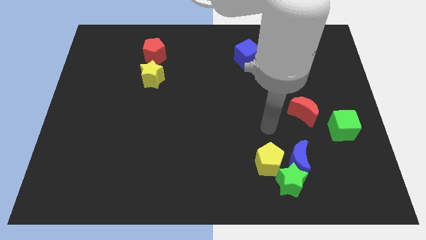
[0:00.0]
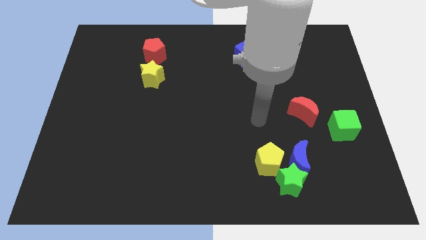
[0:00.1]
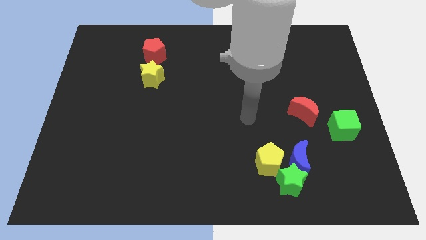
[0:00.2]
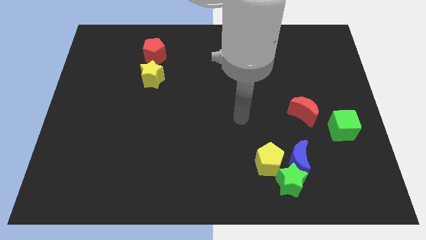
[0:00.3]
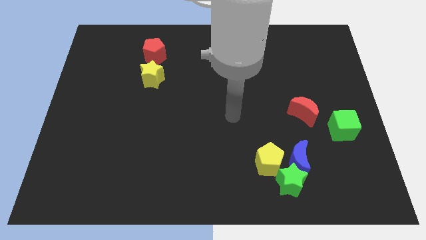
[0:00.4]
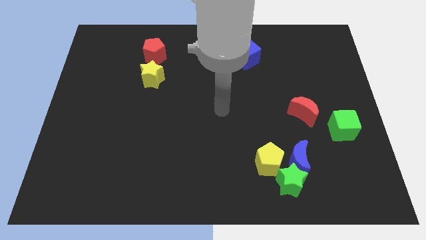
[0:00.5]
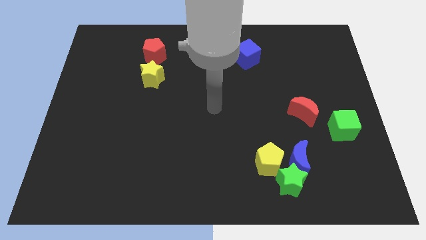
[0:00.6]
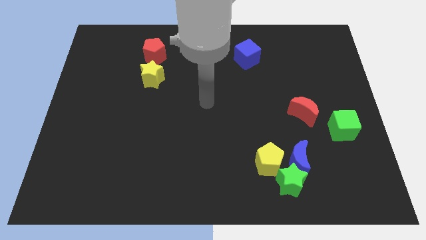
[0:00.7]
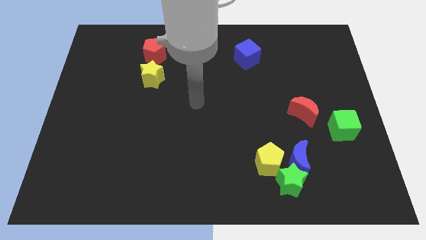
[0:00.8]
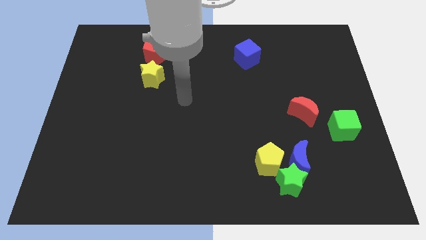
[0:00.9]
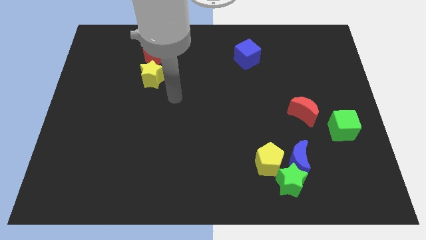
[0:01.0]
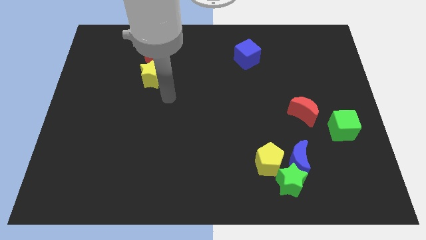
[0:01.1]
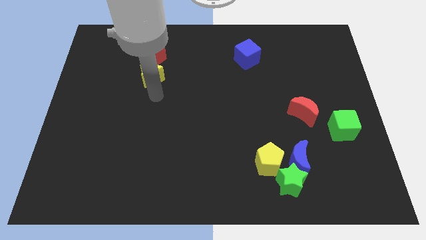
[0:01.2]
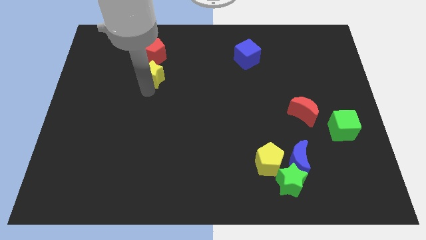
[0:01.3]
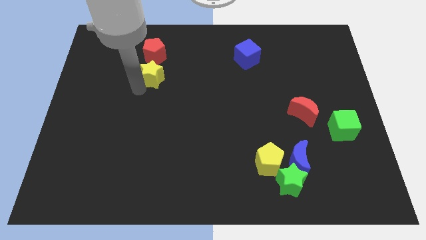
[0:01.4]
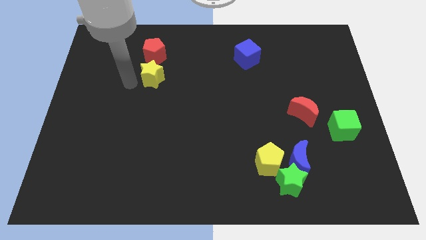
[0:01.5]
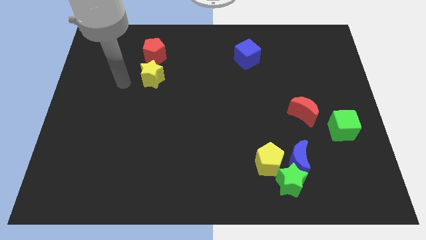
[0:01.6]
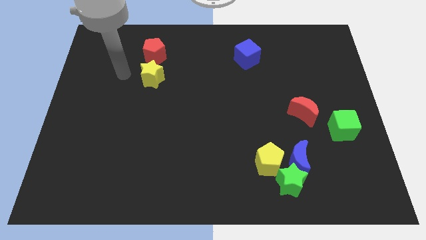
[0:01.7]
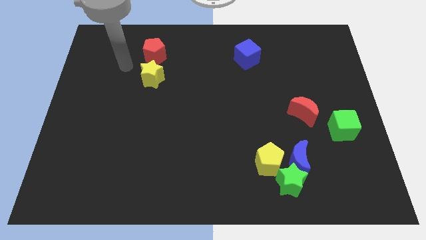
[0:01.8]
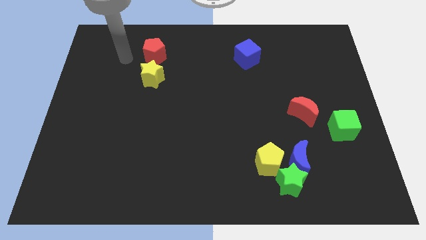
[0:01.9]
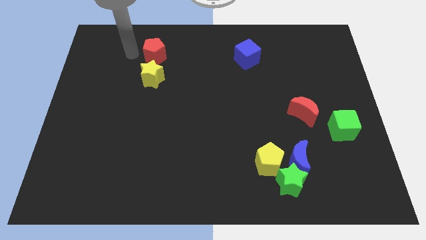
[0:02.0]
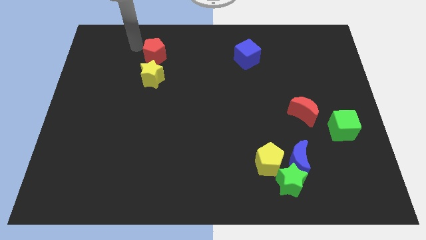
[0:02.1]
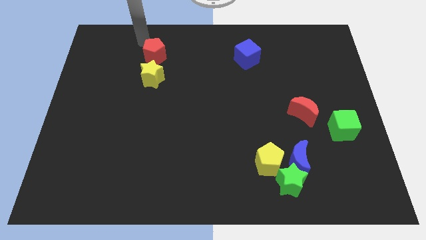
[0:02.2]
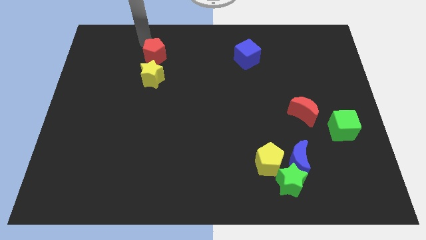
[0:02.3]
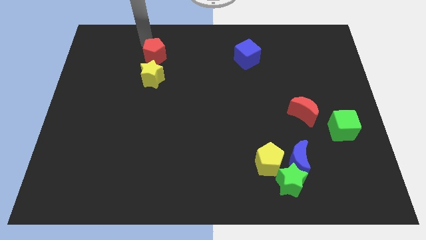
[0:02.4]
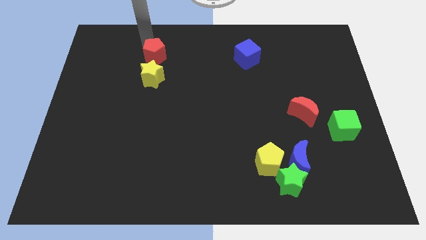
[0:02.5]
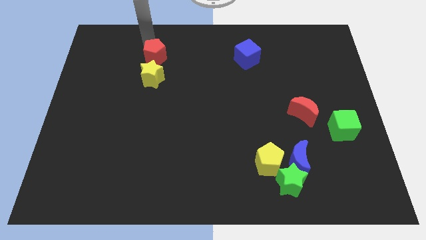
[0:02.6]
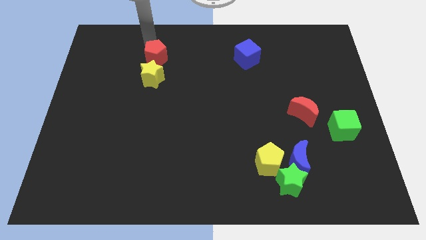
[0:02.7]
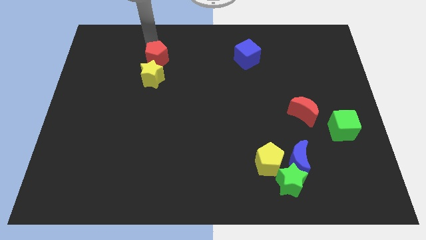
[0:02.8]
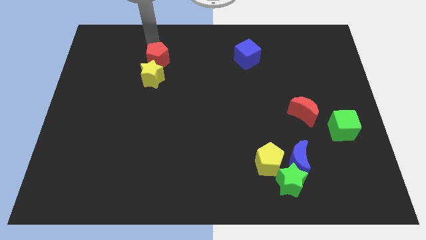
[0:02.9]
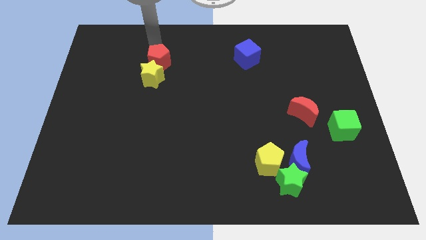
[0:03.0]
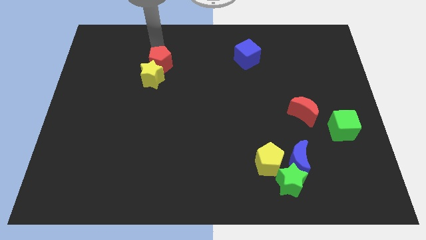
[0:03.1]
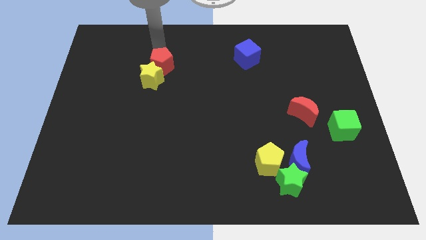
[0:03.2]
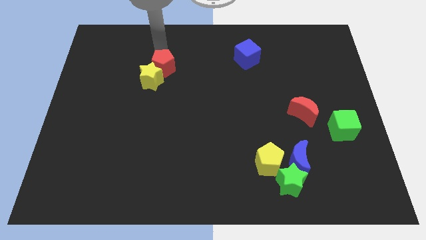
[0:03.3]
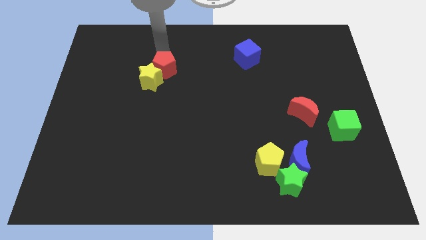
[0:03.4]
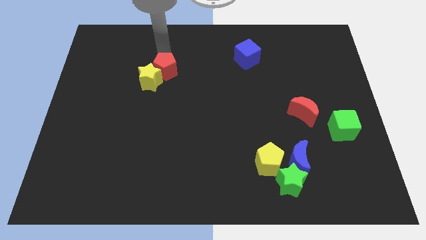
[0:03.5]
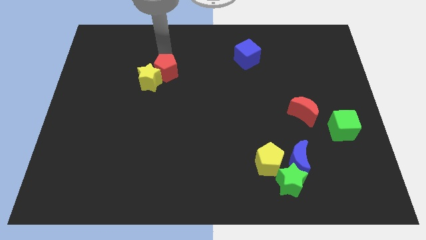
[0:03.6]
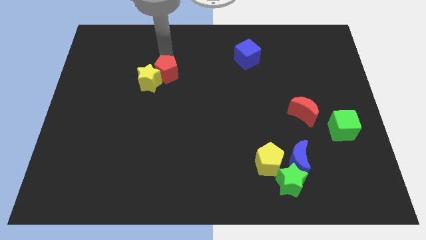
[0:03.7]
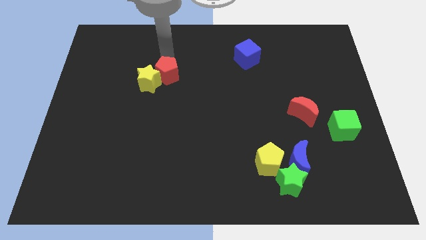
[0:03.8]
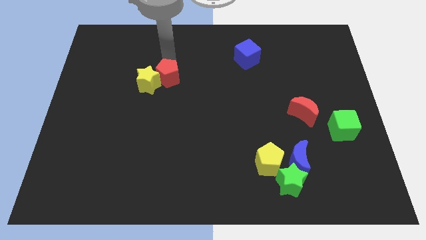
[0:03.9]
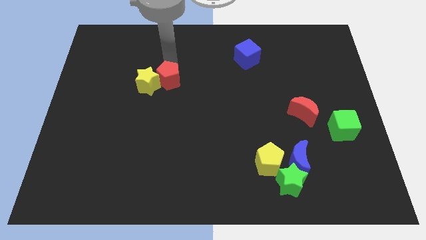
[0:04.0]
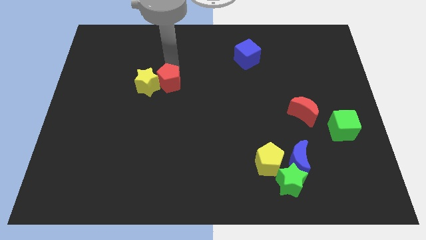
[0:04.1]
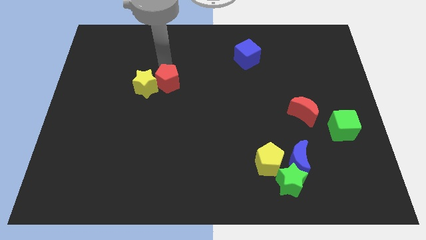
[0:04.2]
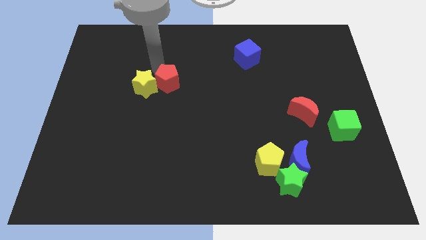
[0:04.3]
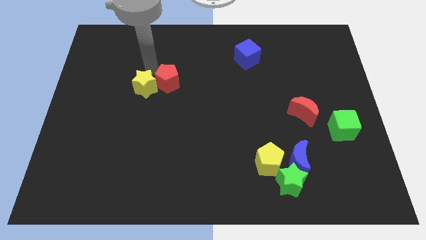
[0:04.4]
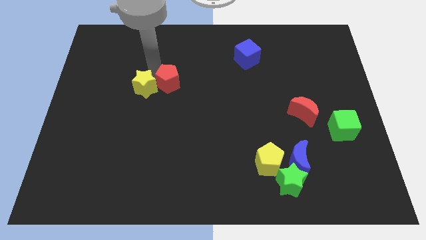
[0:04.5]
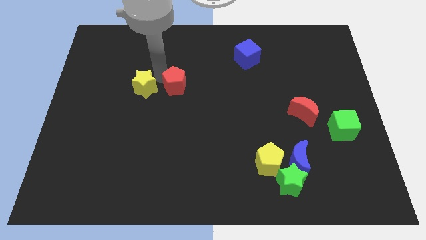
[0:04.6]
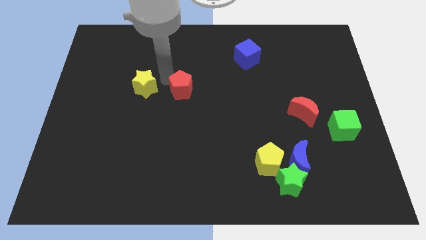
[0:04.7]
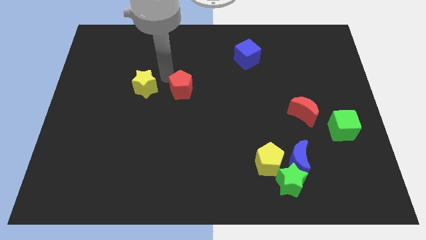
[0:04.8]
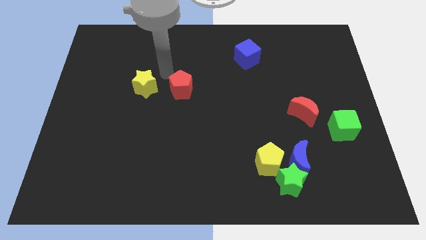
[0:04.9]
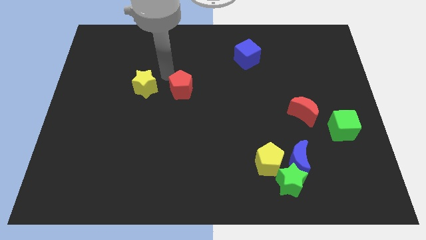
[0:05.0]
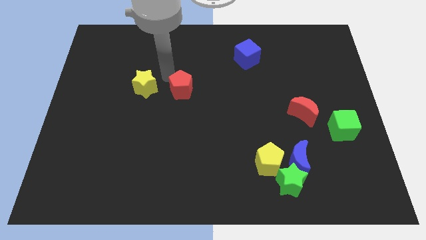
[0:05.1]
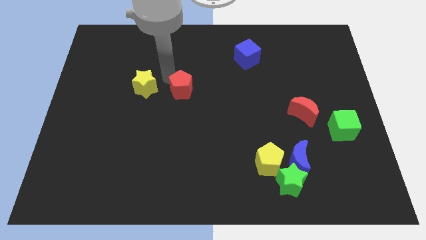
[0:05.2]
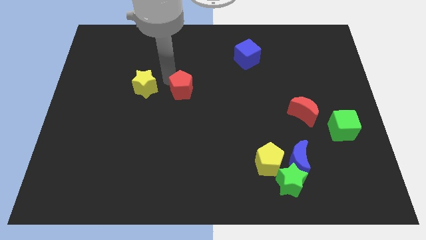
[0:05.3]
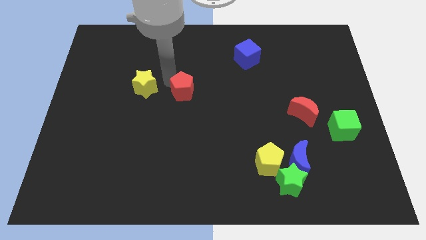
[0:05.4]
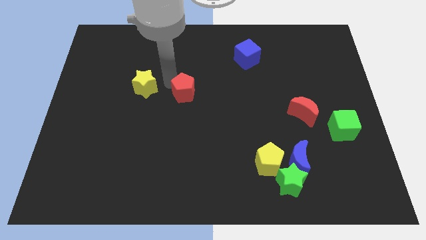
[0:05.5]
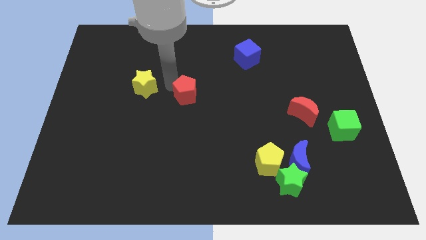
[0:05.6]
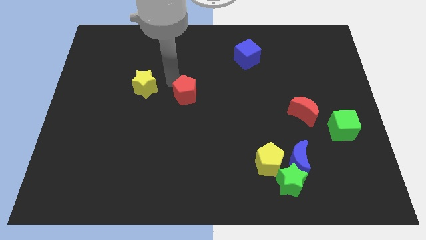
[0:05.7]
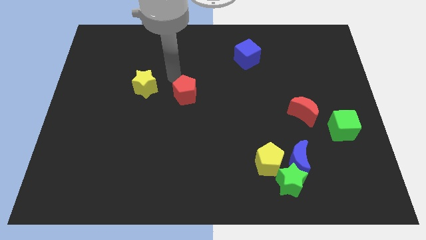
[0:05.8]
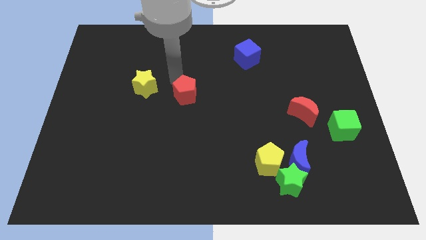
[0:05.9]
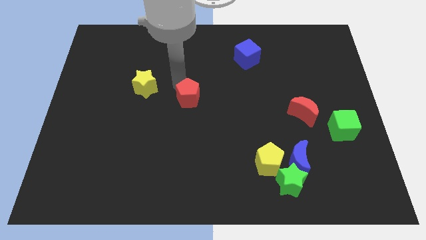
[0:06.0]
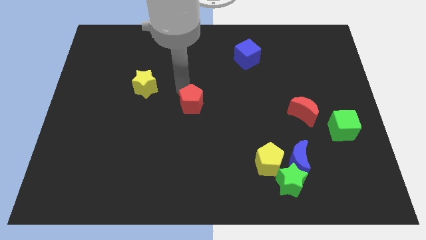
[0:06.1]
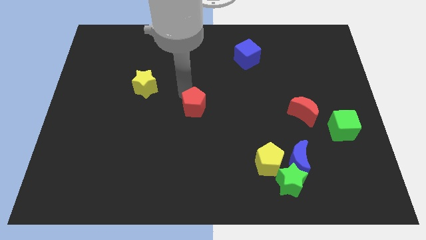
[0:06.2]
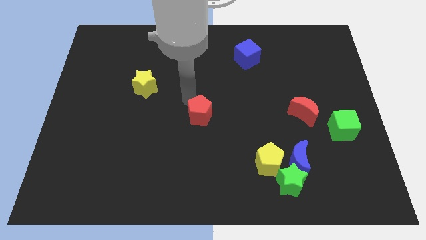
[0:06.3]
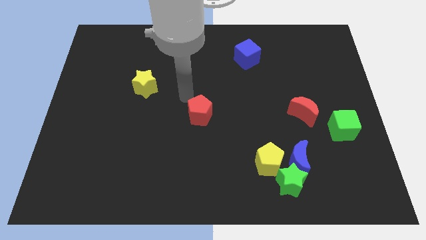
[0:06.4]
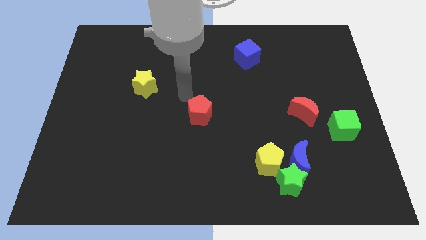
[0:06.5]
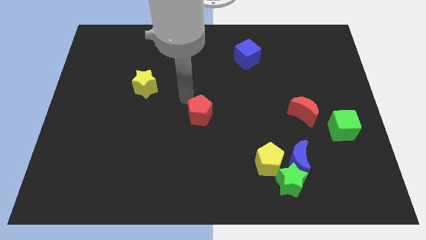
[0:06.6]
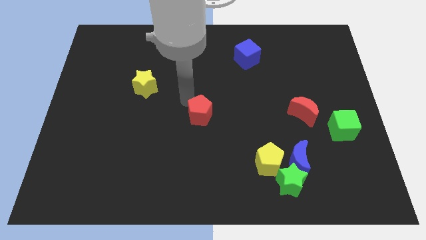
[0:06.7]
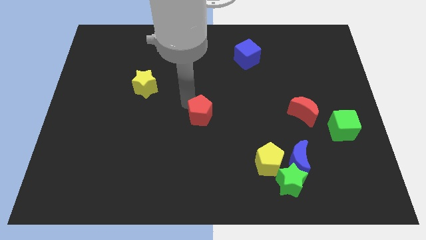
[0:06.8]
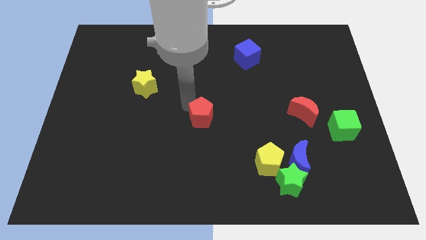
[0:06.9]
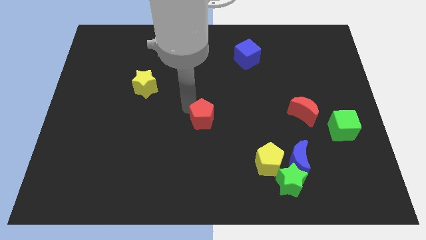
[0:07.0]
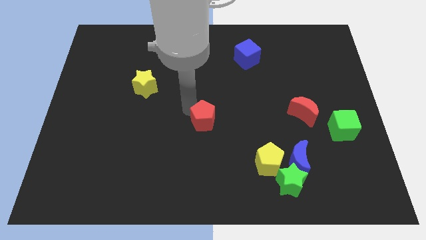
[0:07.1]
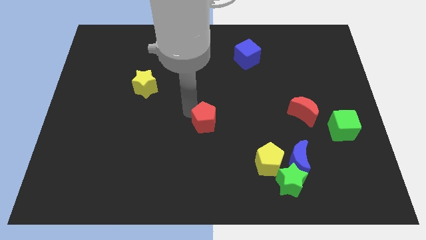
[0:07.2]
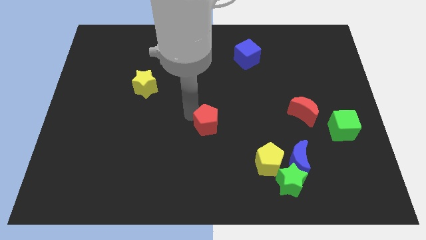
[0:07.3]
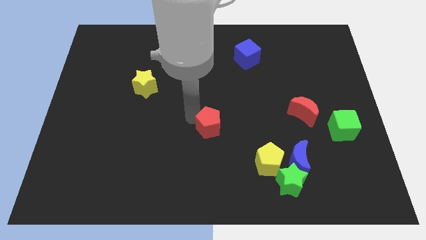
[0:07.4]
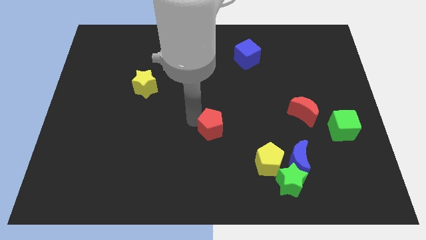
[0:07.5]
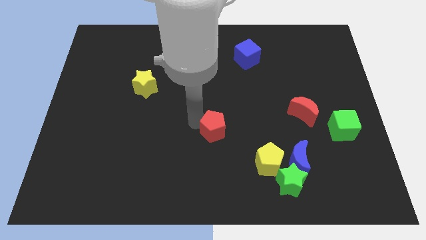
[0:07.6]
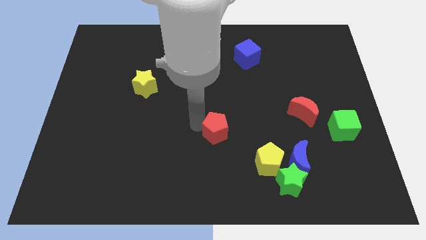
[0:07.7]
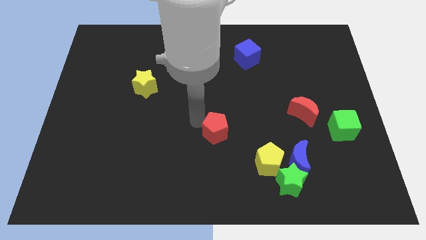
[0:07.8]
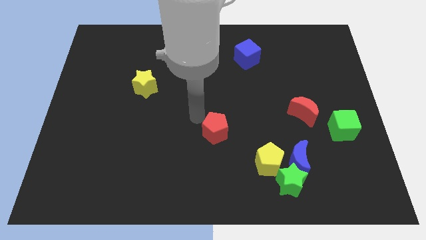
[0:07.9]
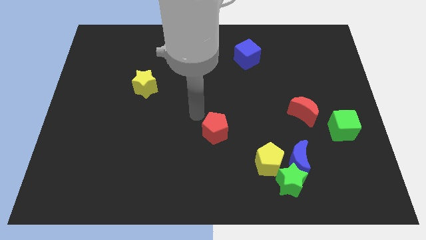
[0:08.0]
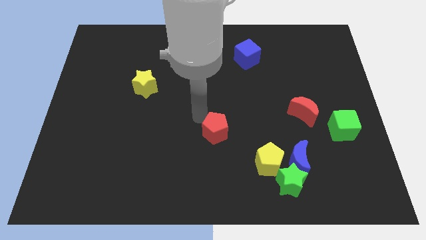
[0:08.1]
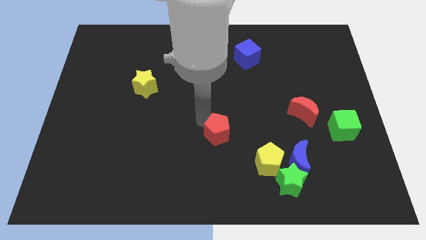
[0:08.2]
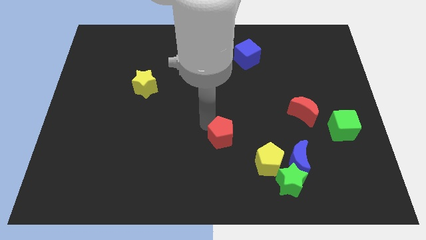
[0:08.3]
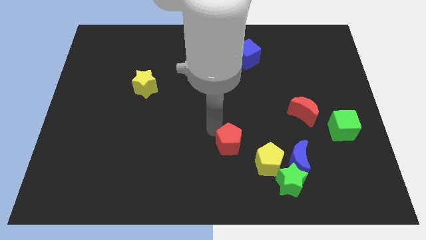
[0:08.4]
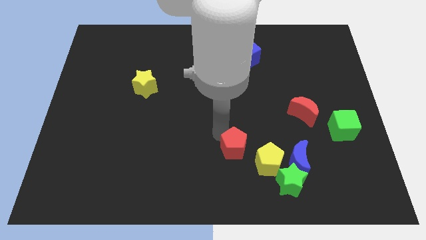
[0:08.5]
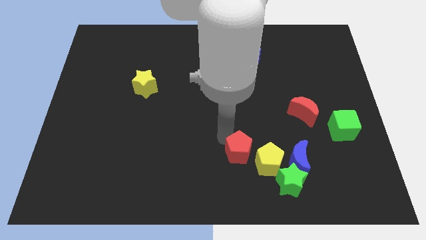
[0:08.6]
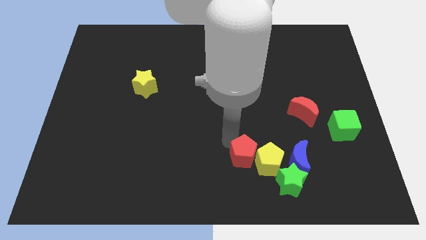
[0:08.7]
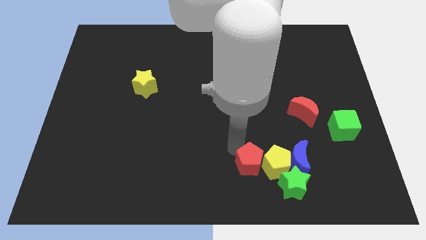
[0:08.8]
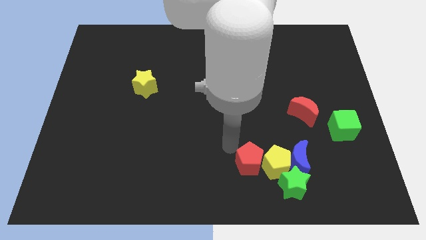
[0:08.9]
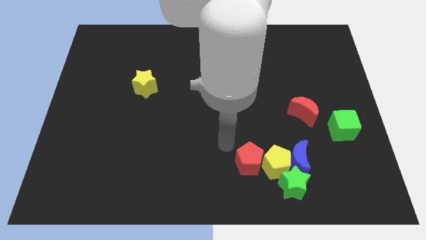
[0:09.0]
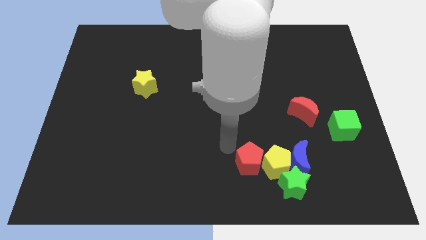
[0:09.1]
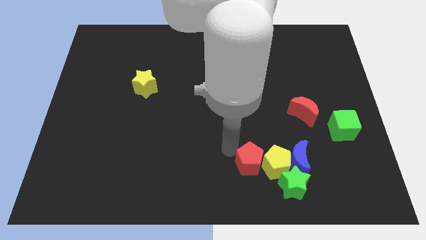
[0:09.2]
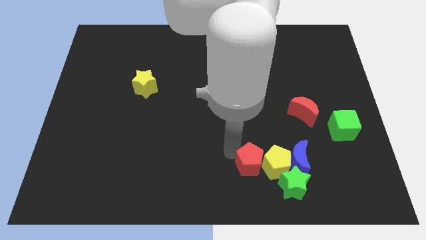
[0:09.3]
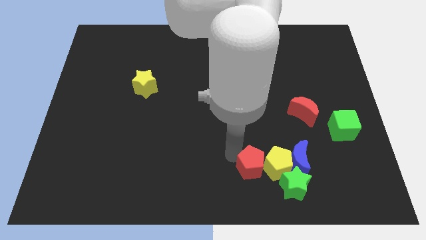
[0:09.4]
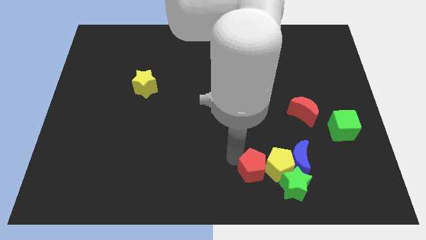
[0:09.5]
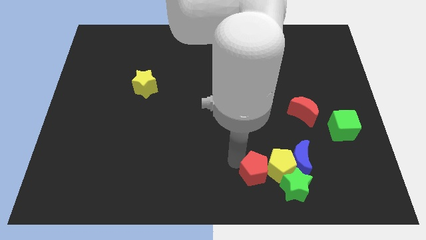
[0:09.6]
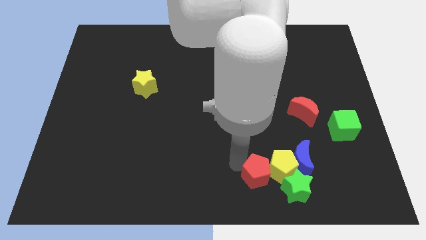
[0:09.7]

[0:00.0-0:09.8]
push the red pentagon diagonally down and to the left of the blue moon
